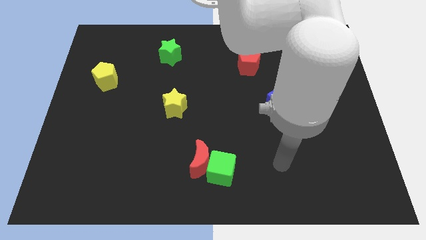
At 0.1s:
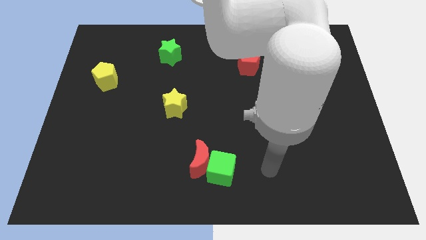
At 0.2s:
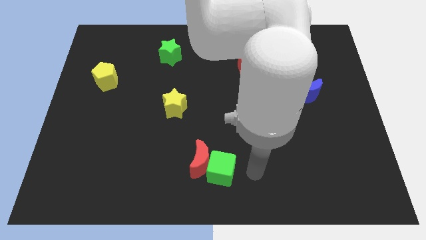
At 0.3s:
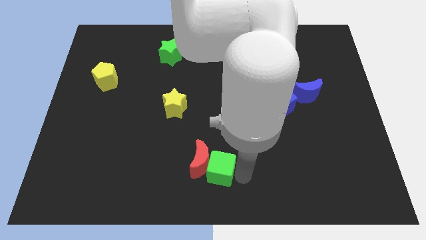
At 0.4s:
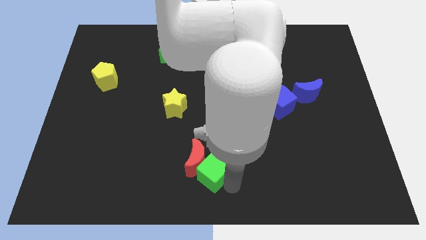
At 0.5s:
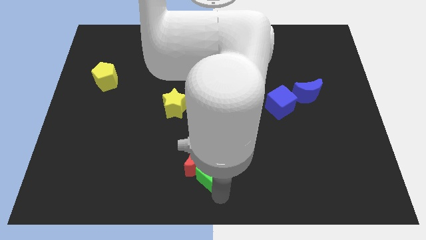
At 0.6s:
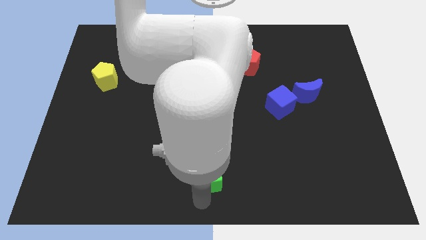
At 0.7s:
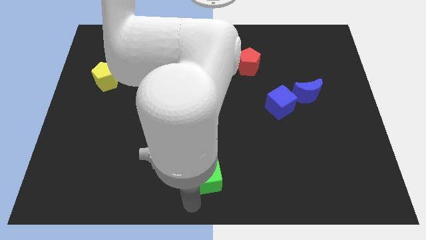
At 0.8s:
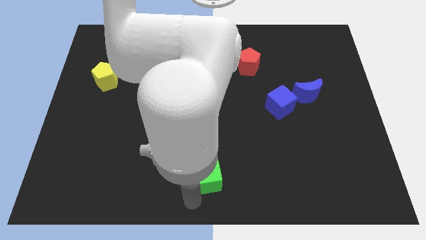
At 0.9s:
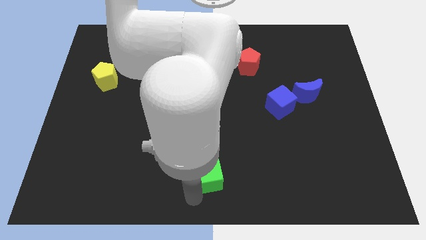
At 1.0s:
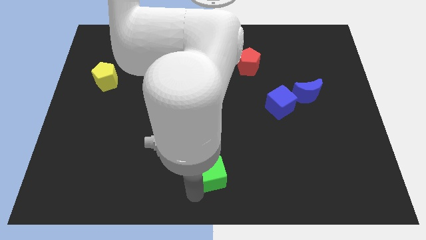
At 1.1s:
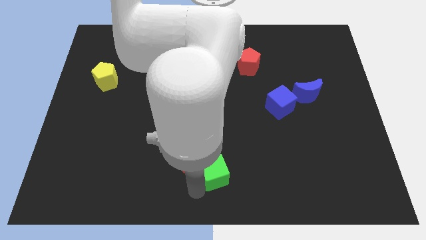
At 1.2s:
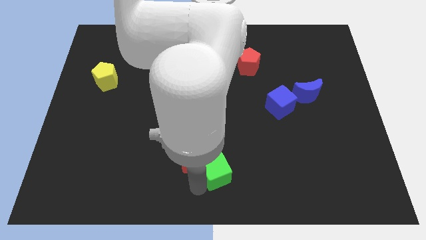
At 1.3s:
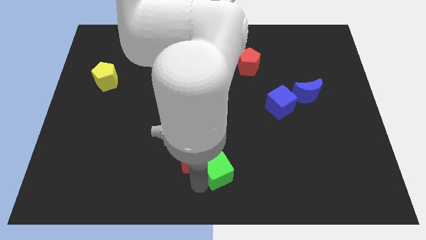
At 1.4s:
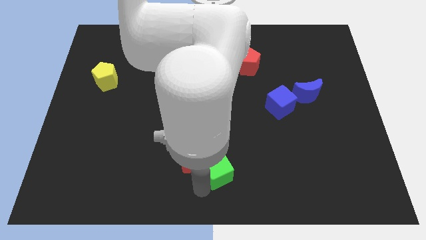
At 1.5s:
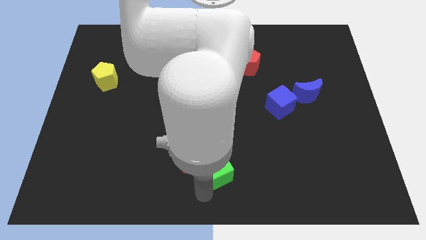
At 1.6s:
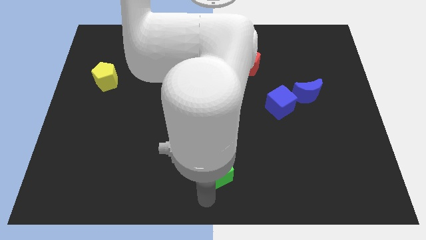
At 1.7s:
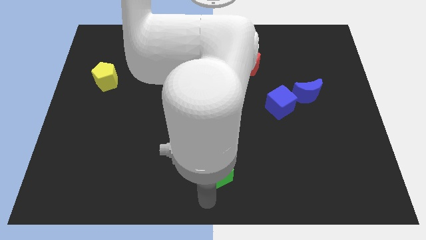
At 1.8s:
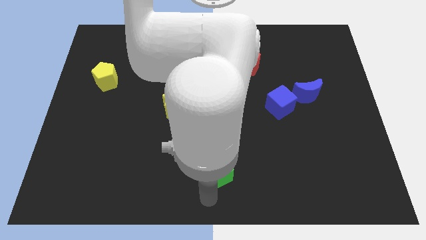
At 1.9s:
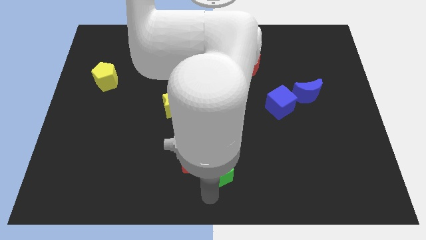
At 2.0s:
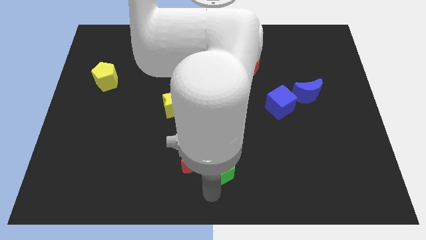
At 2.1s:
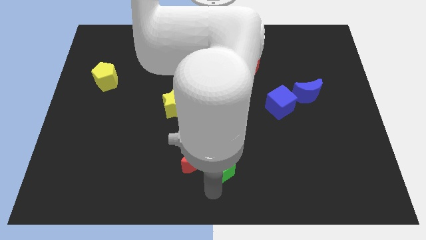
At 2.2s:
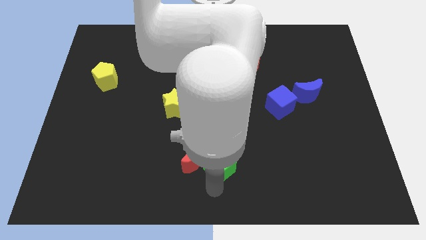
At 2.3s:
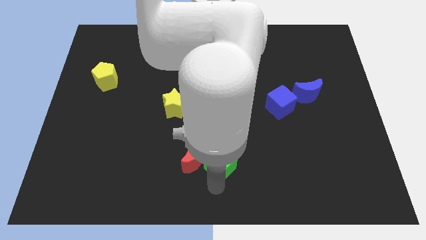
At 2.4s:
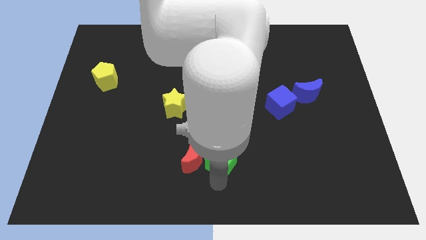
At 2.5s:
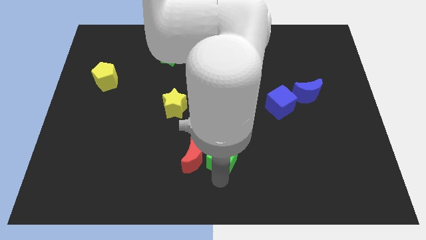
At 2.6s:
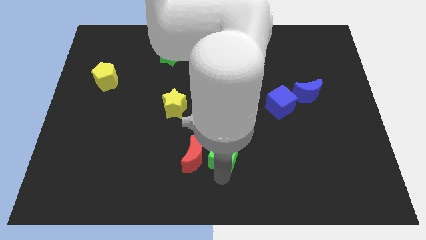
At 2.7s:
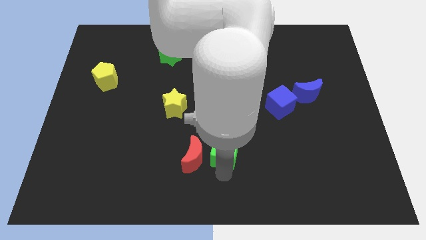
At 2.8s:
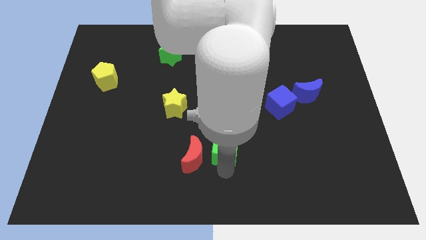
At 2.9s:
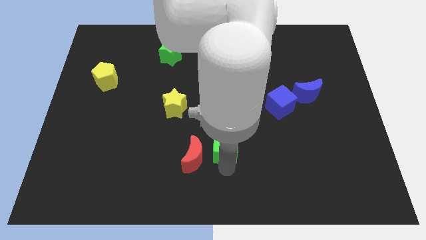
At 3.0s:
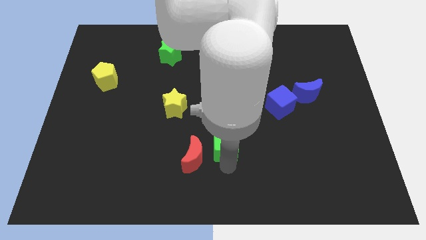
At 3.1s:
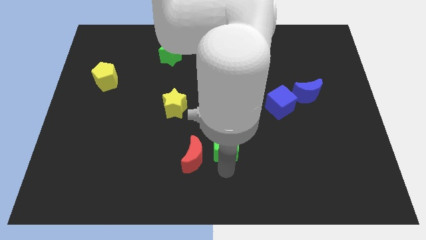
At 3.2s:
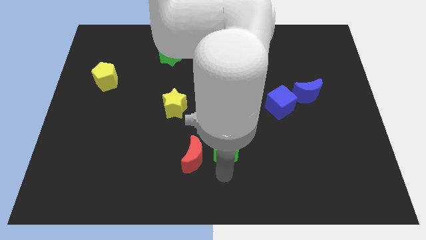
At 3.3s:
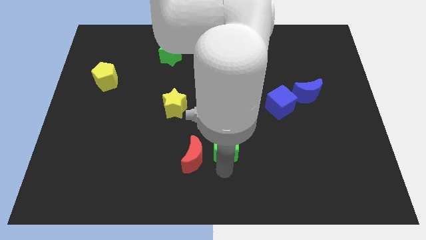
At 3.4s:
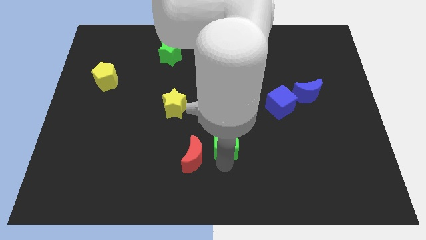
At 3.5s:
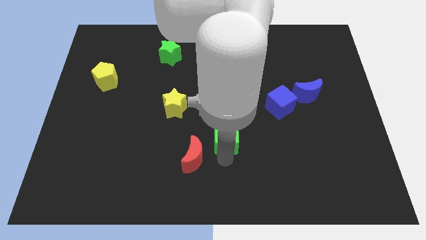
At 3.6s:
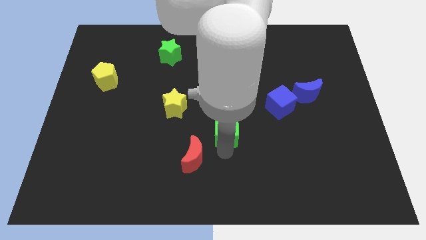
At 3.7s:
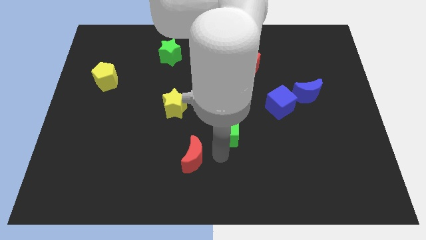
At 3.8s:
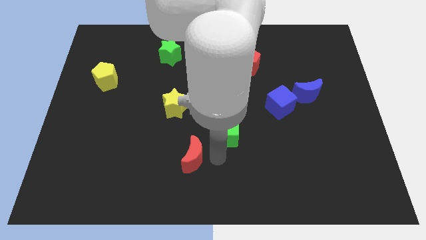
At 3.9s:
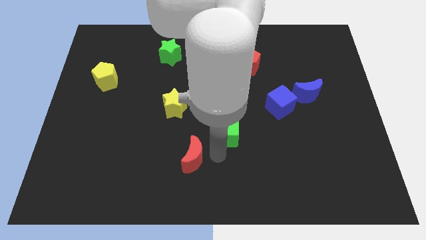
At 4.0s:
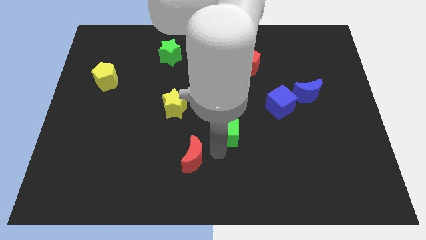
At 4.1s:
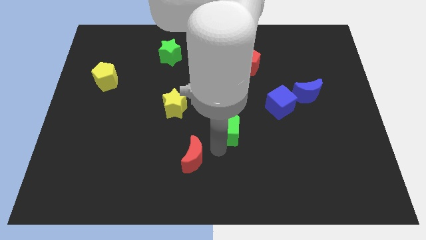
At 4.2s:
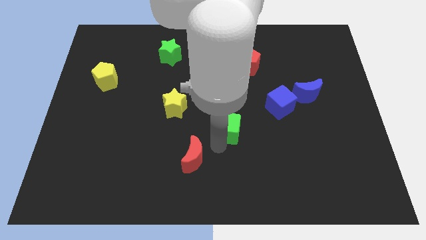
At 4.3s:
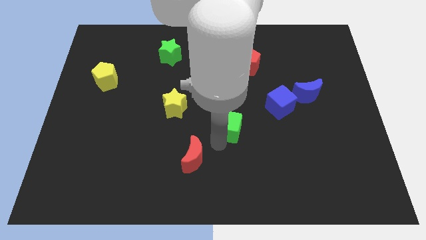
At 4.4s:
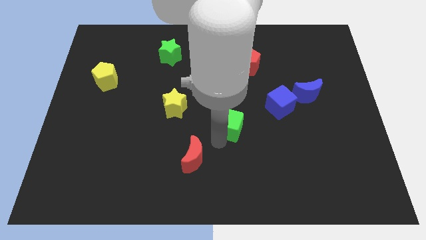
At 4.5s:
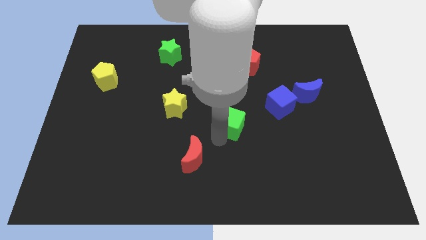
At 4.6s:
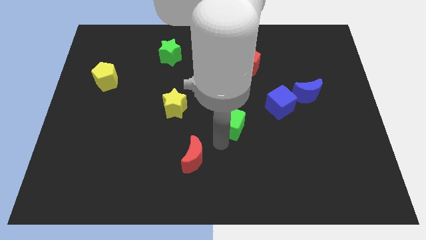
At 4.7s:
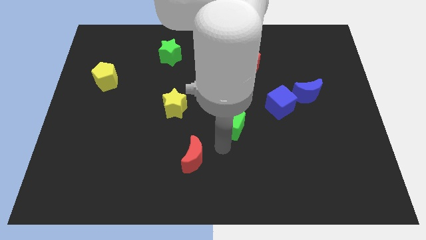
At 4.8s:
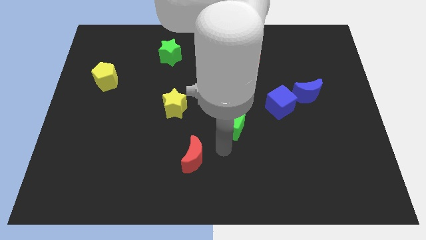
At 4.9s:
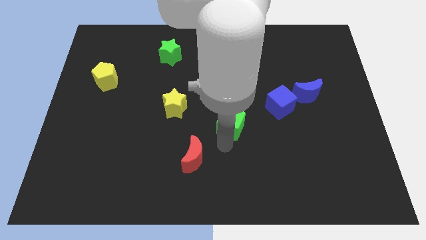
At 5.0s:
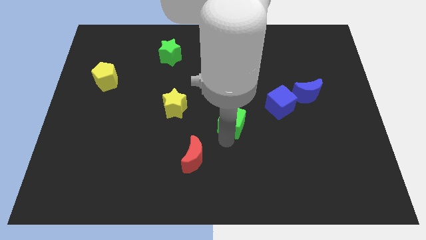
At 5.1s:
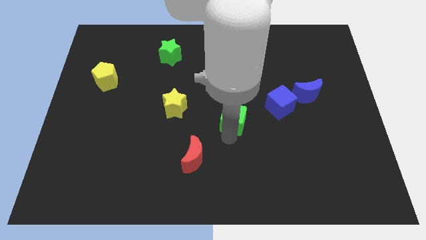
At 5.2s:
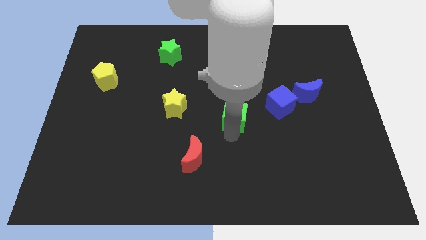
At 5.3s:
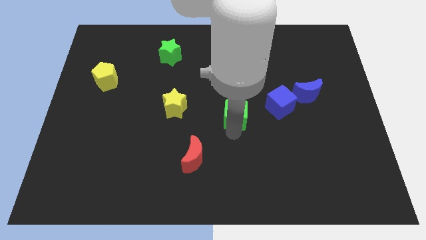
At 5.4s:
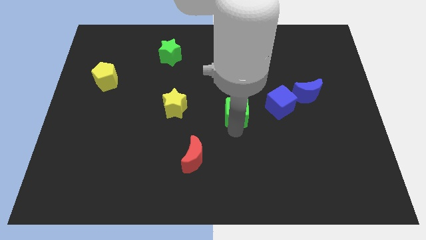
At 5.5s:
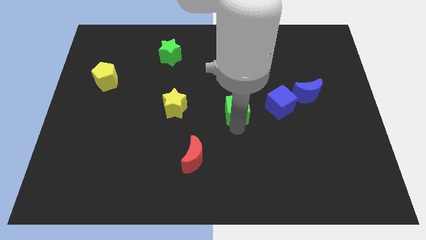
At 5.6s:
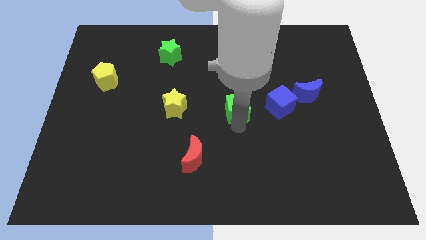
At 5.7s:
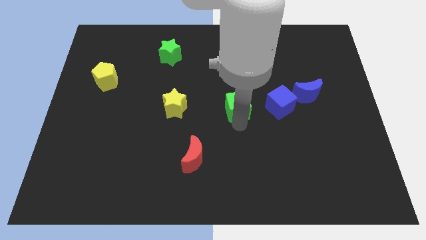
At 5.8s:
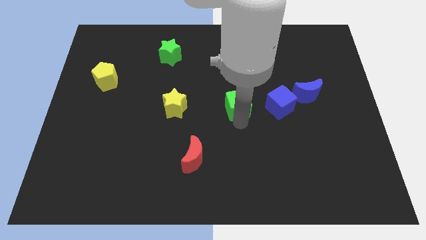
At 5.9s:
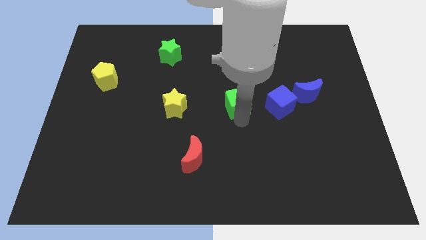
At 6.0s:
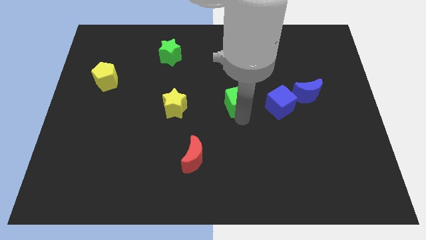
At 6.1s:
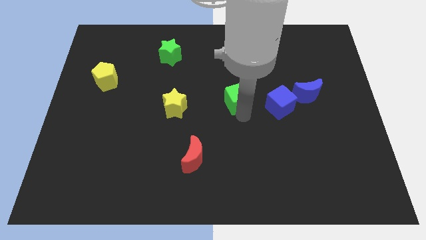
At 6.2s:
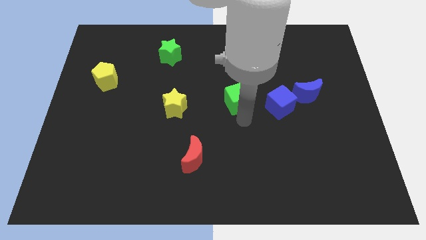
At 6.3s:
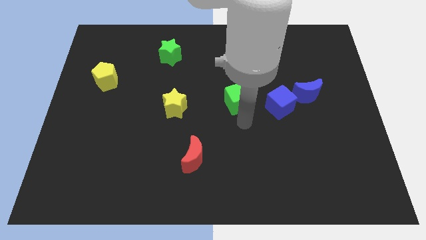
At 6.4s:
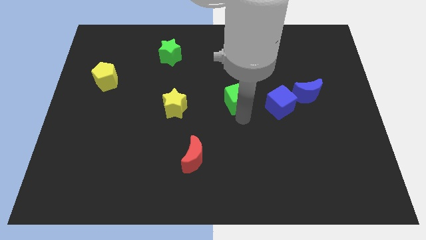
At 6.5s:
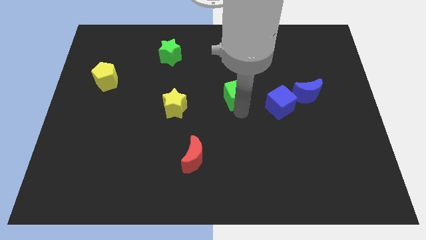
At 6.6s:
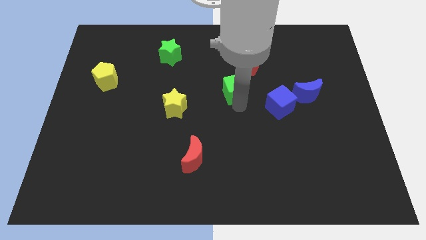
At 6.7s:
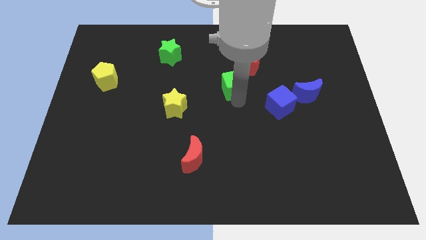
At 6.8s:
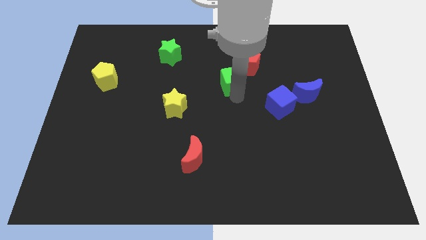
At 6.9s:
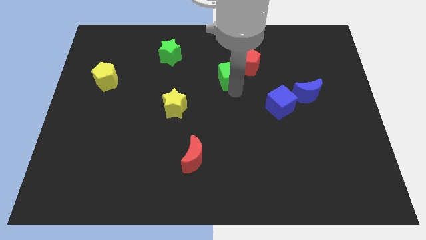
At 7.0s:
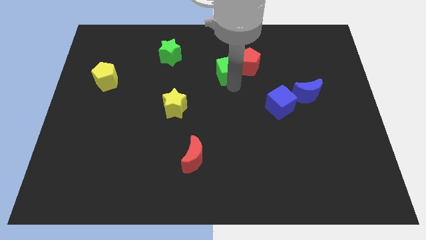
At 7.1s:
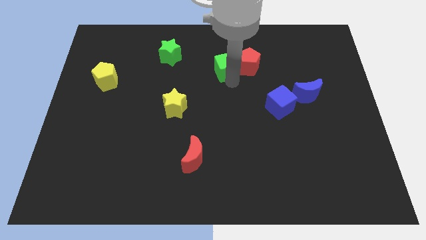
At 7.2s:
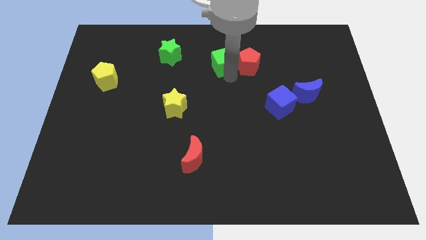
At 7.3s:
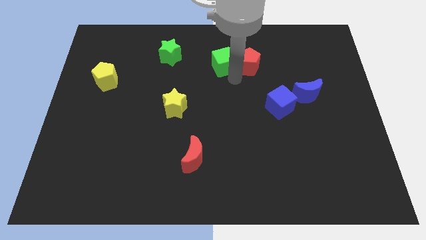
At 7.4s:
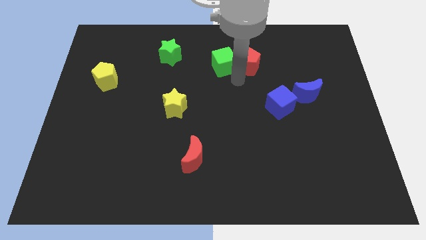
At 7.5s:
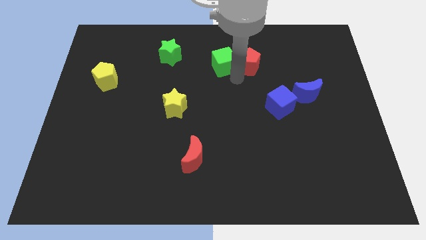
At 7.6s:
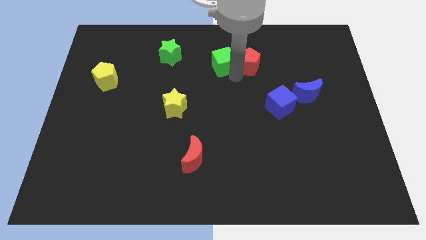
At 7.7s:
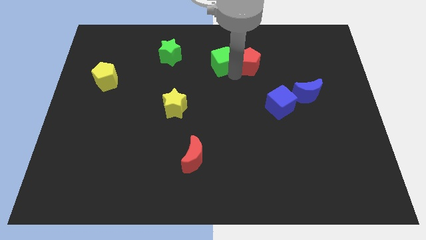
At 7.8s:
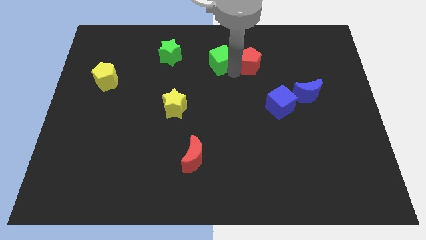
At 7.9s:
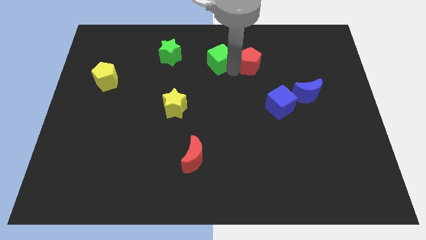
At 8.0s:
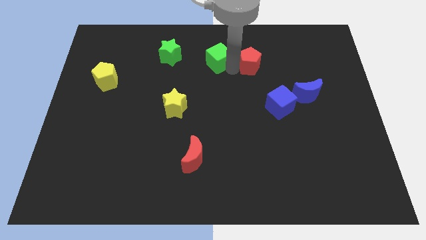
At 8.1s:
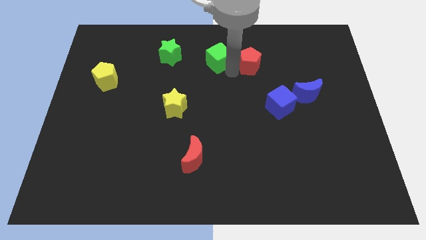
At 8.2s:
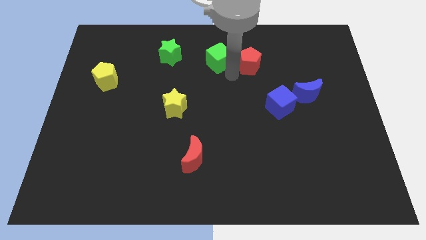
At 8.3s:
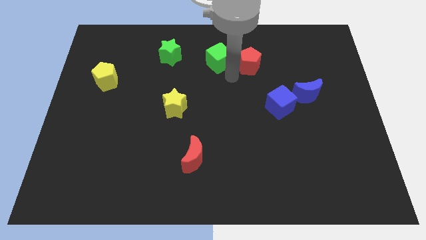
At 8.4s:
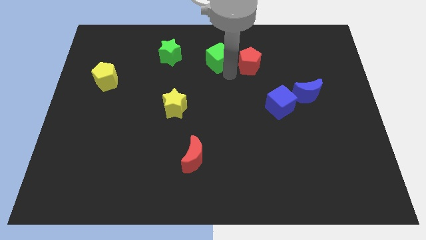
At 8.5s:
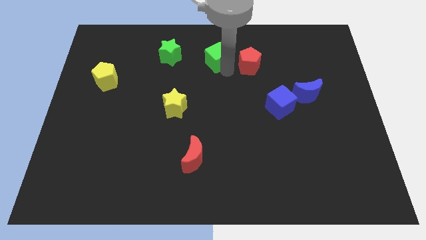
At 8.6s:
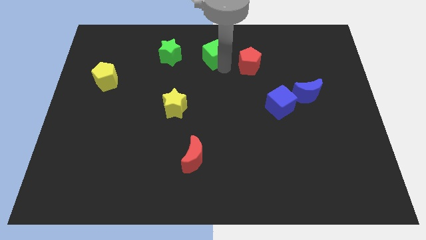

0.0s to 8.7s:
put the green cube to the top
